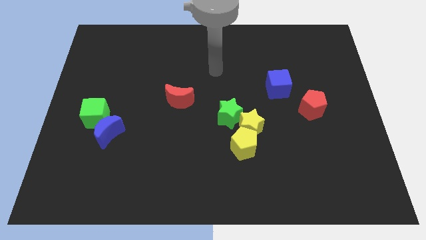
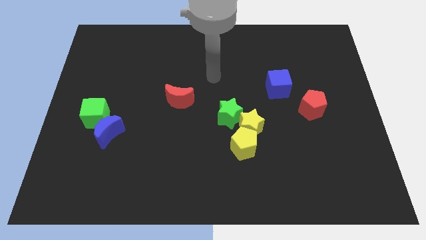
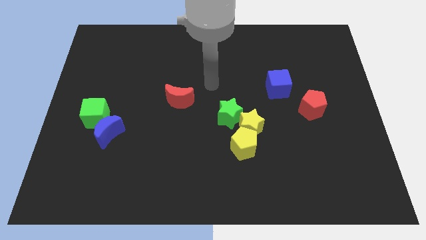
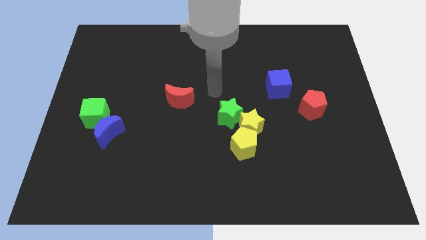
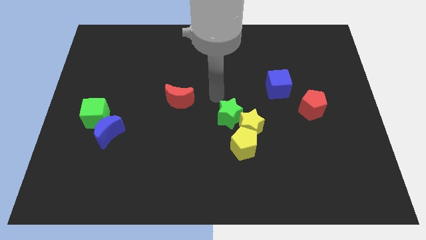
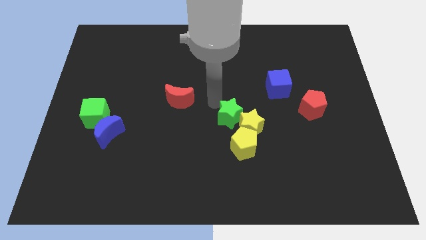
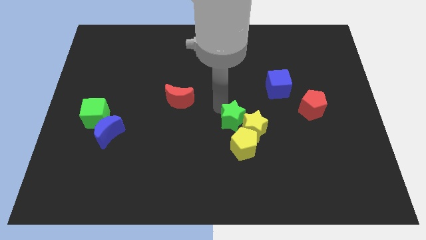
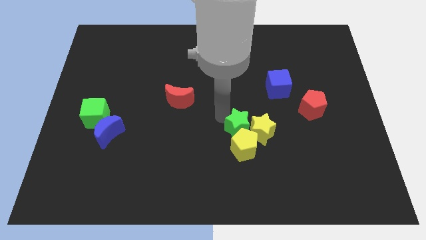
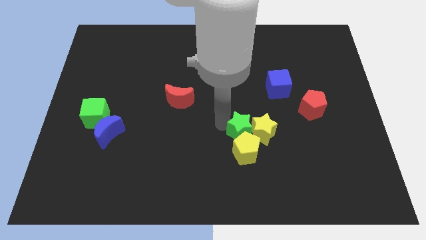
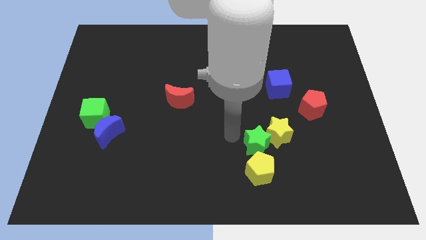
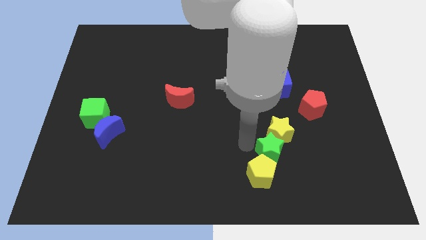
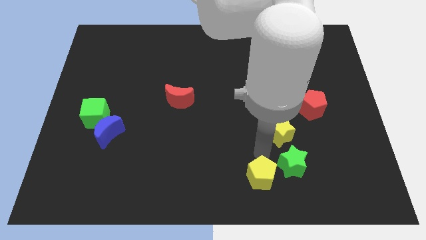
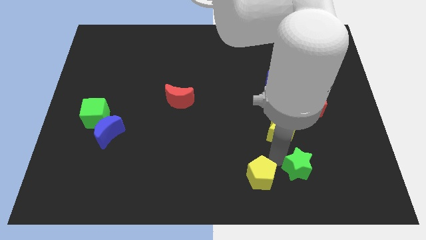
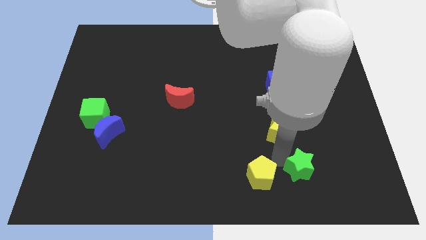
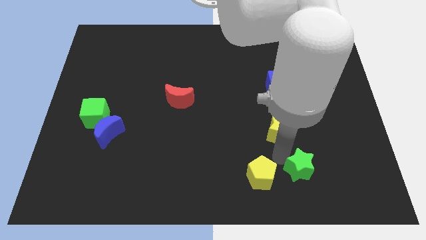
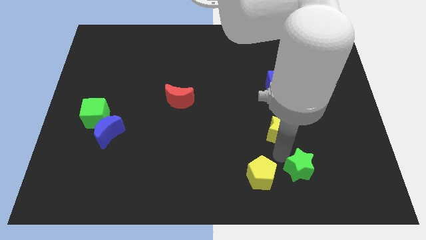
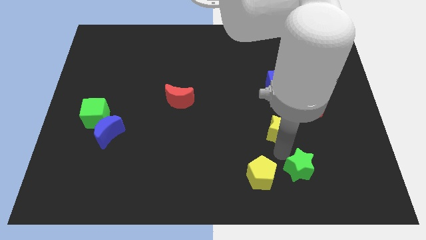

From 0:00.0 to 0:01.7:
move the yellow star away from the yellow pentagon and green star

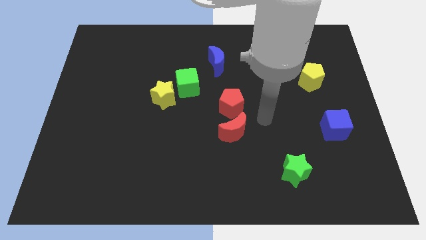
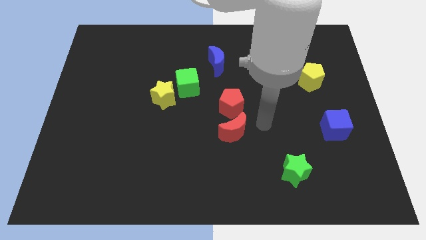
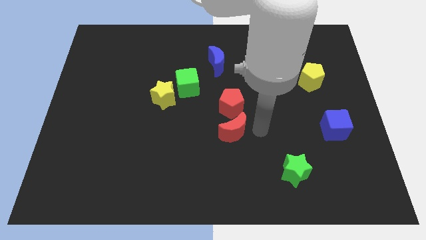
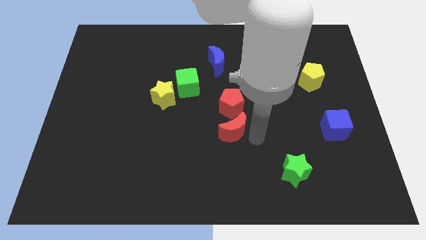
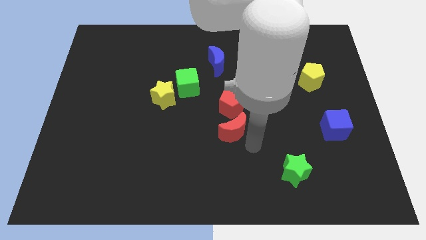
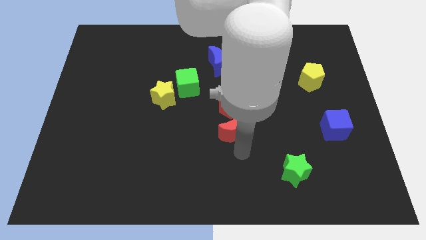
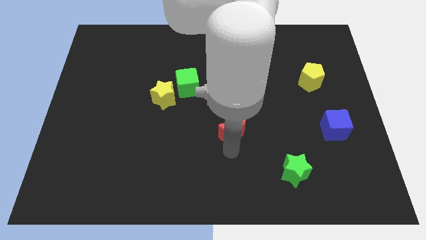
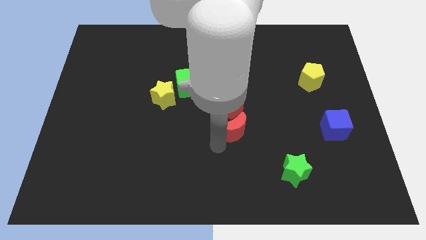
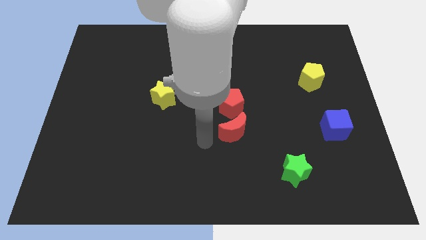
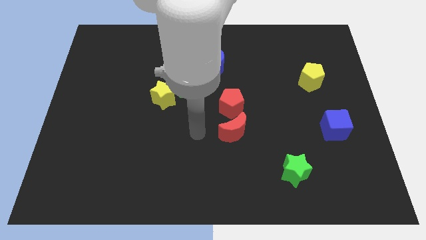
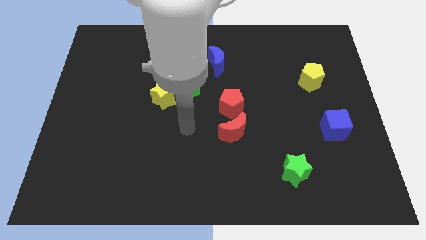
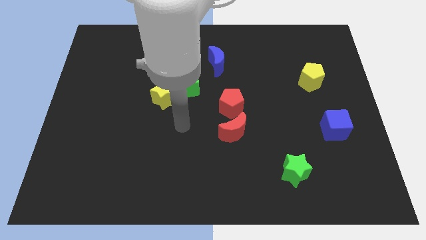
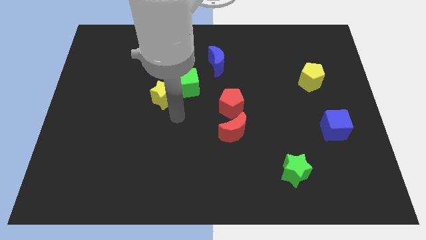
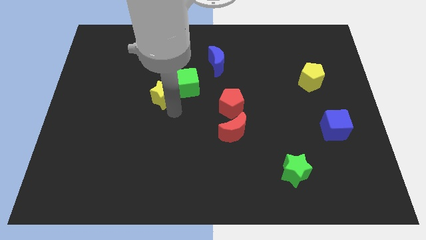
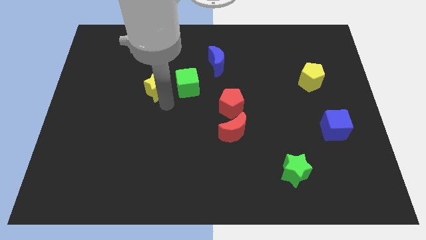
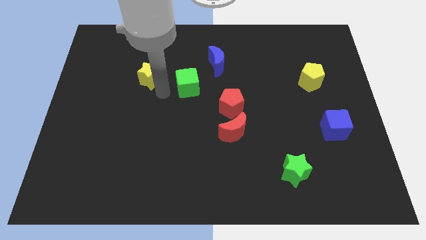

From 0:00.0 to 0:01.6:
pull the green cube apart from the yellow star

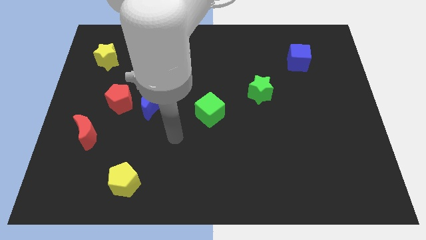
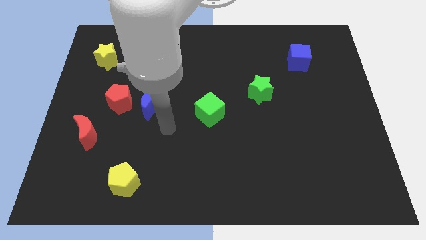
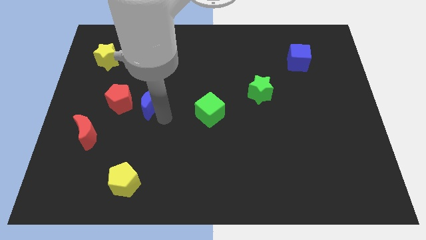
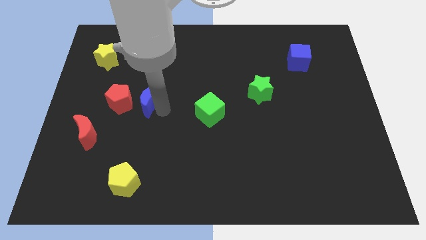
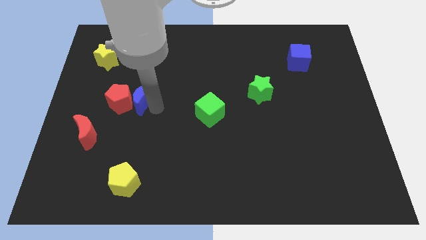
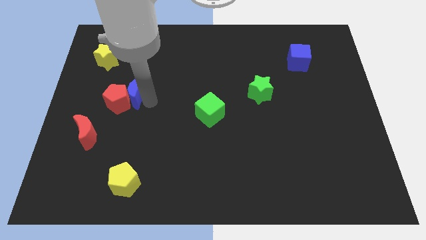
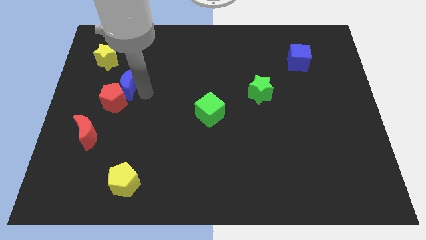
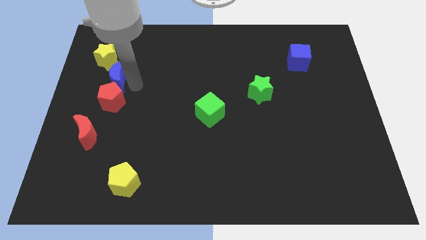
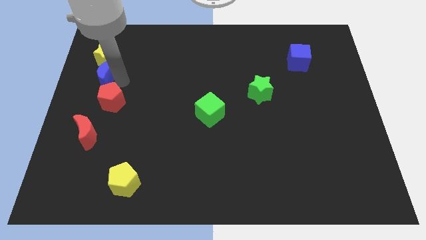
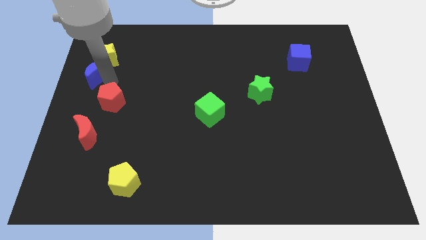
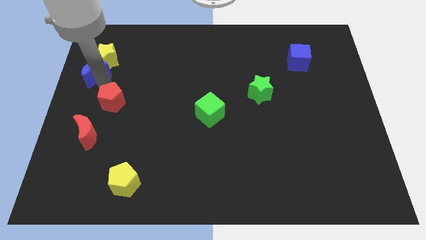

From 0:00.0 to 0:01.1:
separate the red pentagon from the blue moon

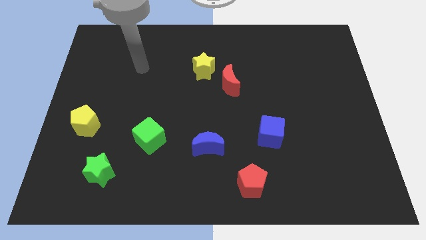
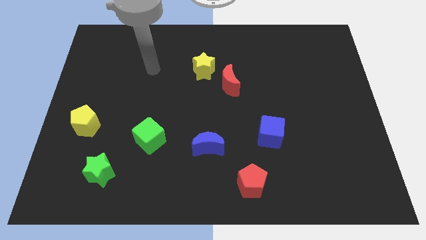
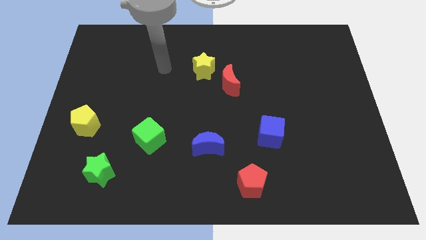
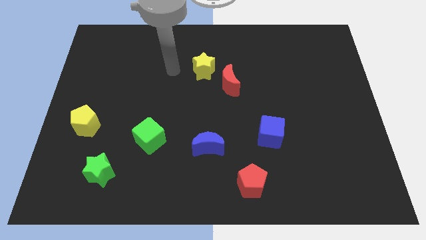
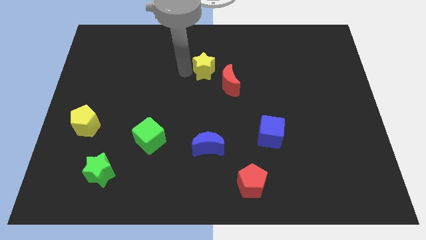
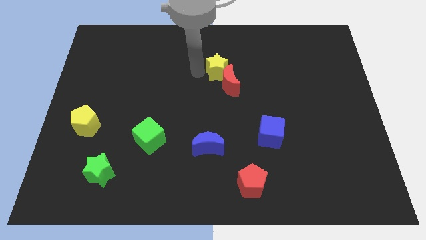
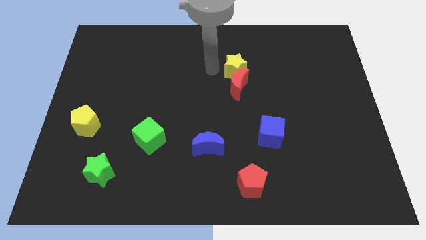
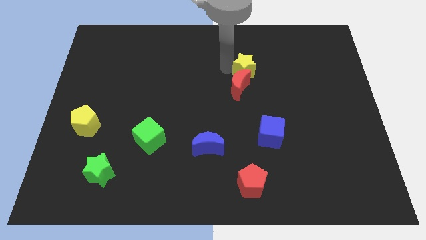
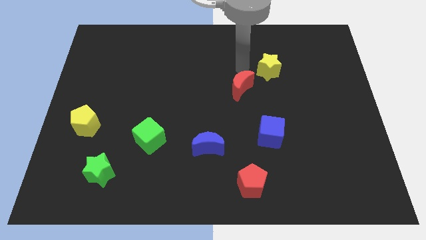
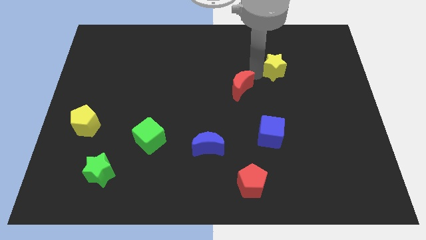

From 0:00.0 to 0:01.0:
separate the red moon from the yellow star

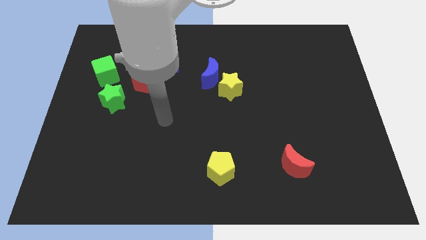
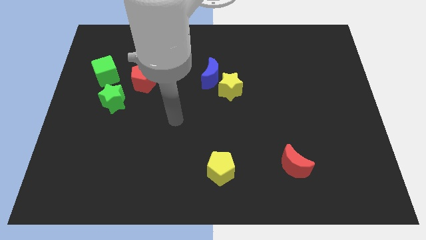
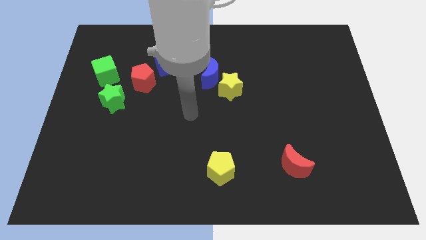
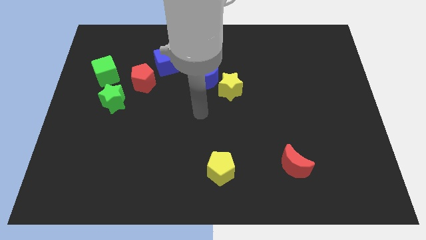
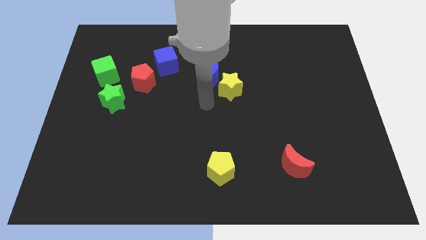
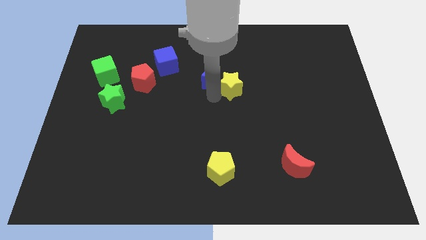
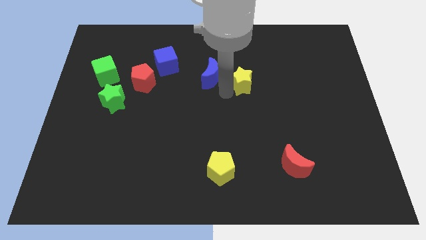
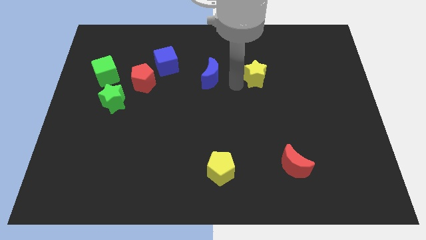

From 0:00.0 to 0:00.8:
pull the blue moon apart from the yellow star

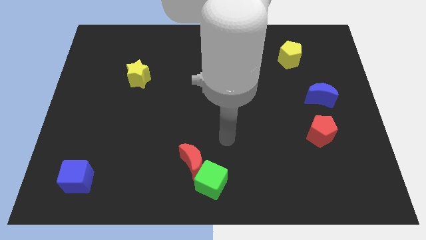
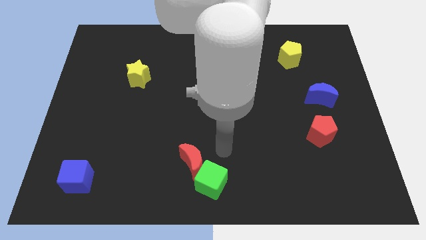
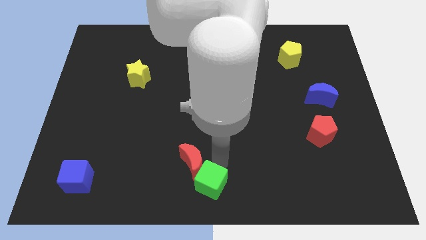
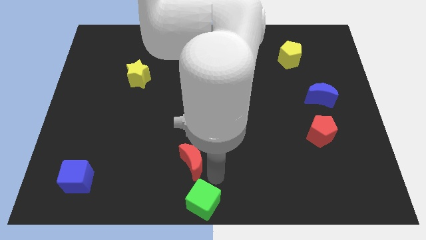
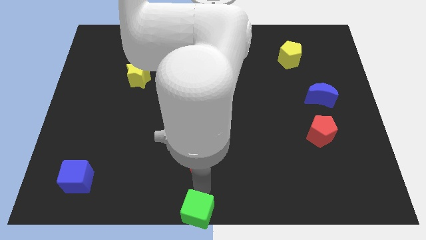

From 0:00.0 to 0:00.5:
move the red moon away from the green cube

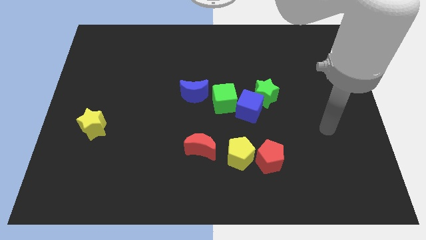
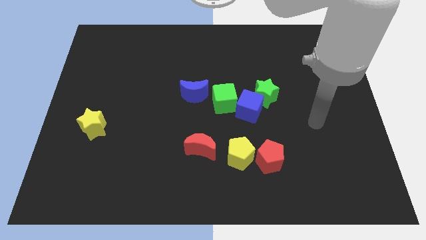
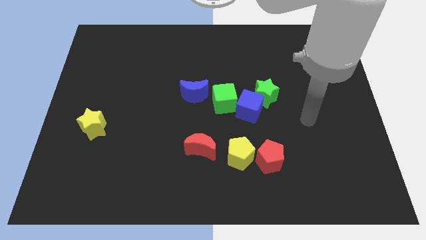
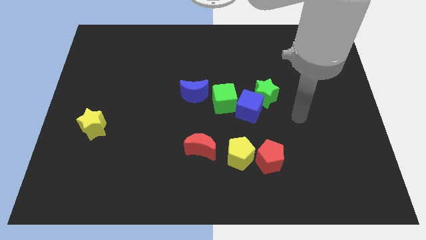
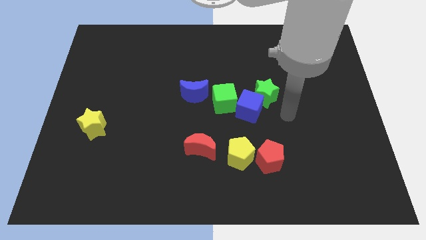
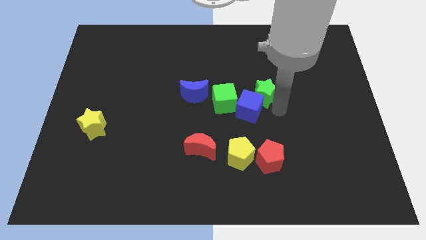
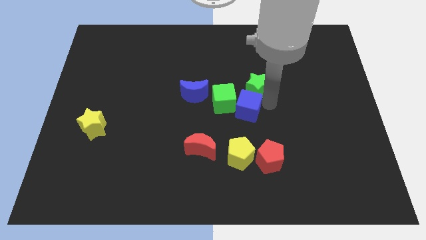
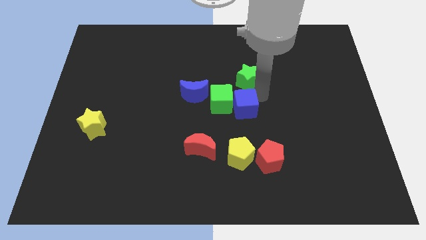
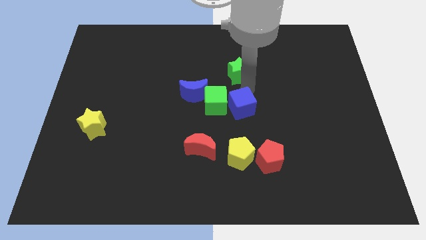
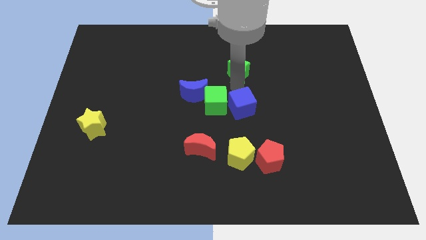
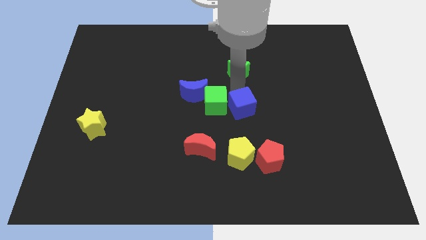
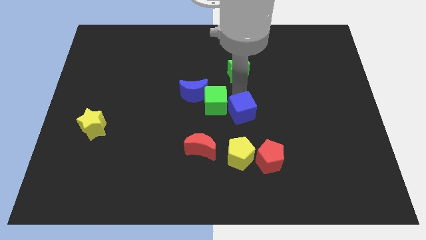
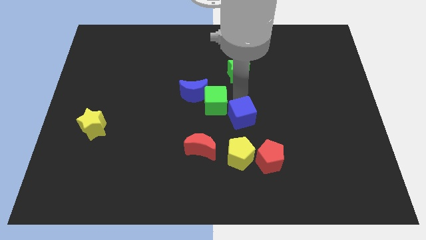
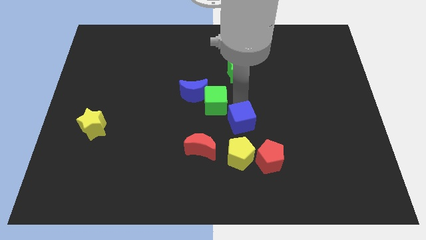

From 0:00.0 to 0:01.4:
pull the blue cube apart from the green star and green cube

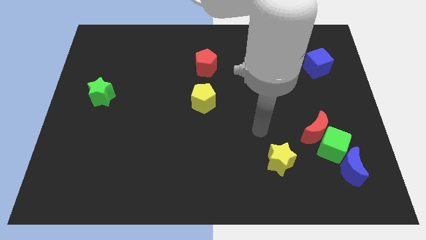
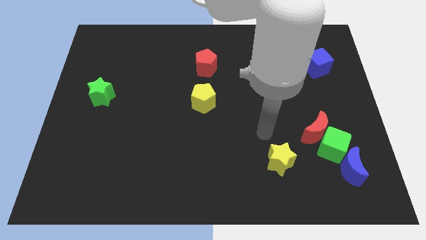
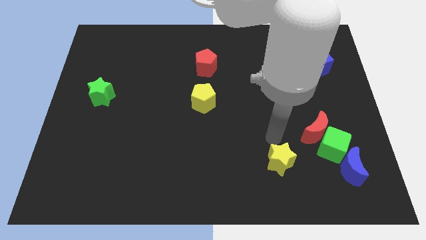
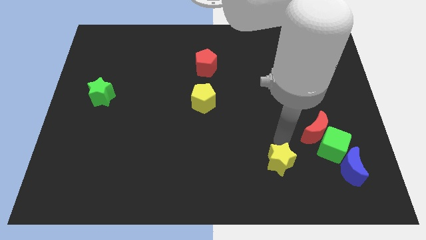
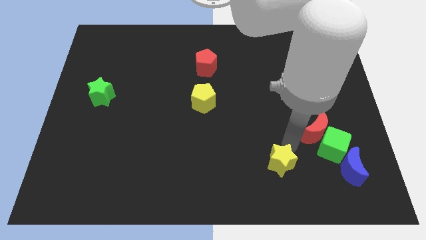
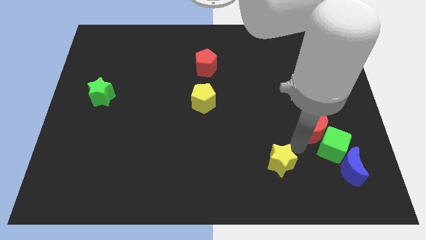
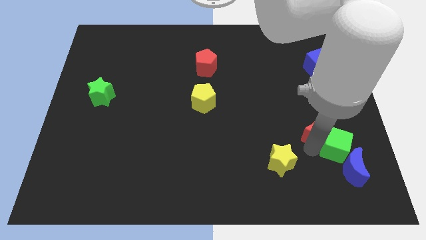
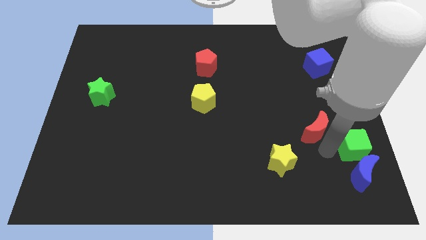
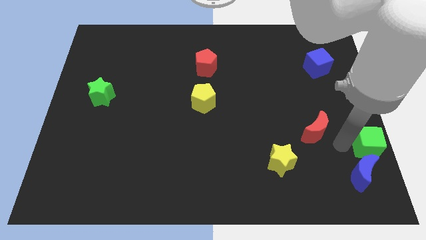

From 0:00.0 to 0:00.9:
pull the red moon apart from the green cube

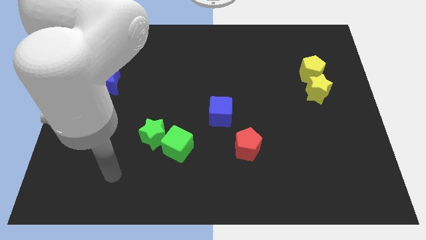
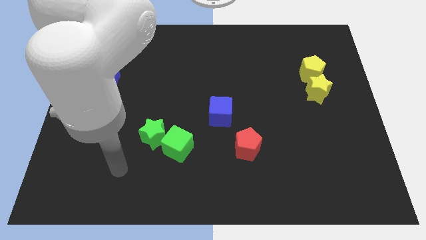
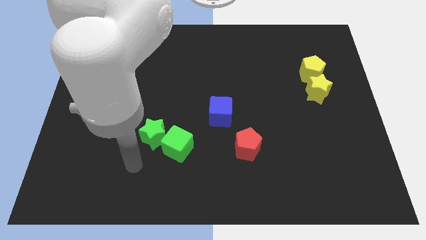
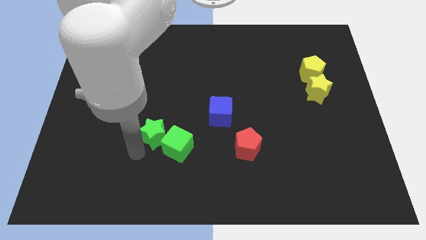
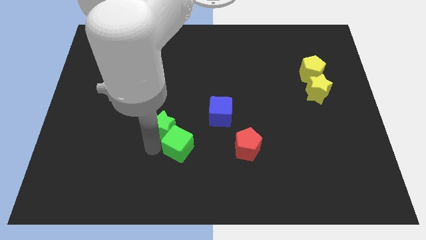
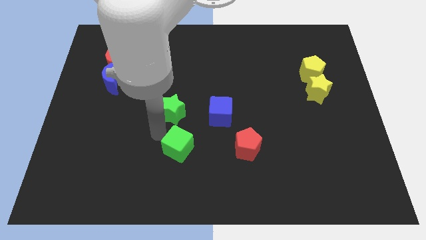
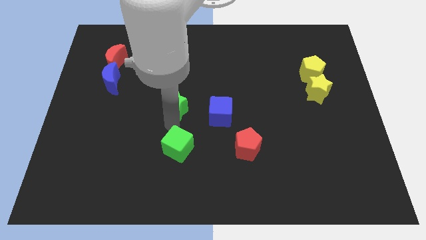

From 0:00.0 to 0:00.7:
move the green cube away from the green star
